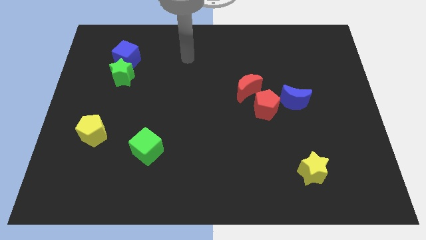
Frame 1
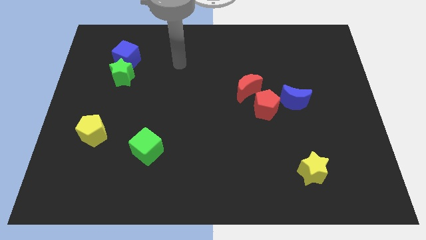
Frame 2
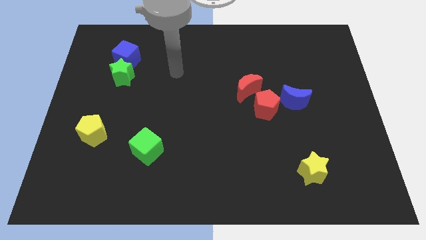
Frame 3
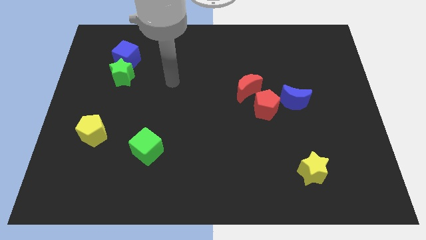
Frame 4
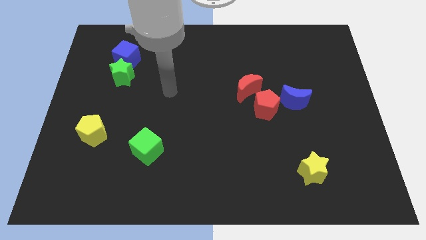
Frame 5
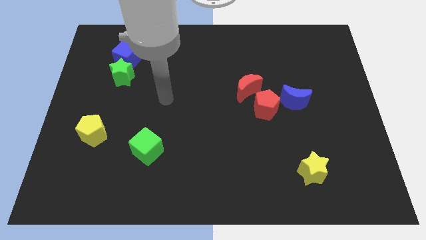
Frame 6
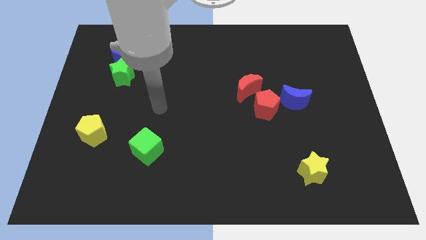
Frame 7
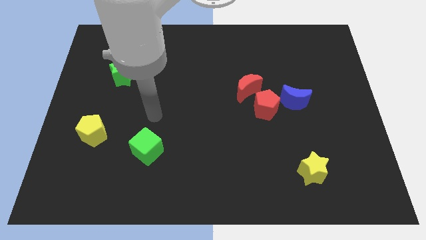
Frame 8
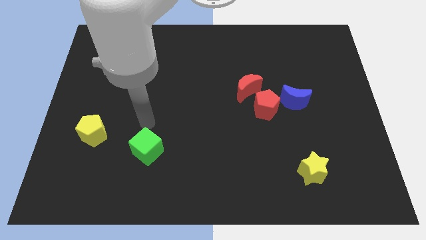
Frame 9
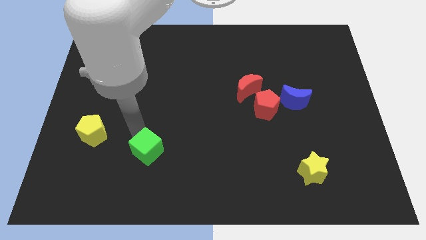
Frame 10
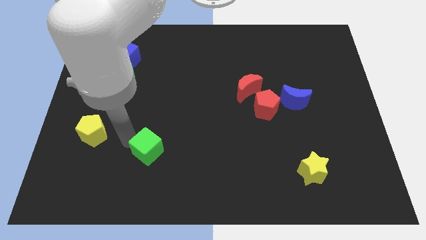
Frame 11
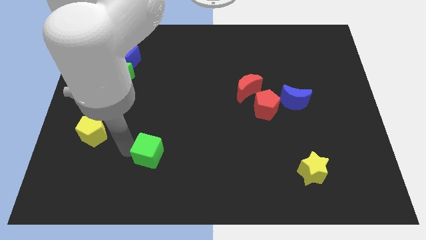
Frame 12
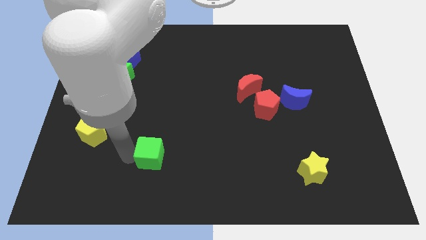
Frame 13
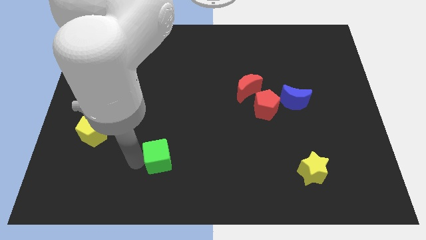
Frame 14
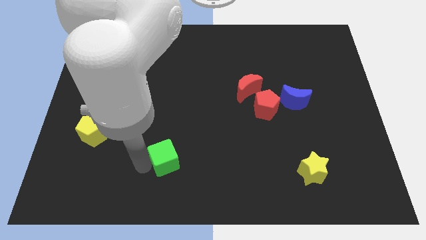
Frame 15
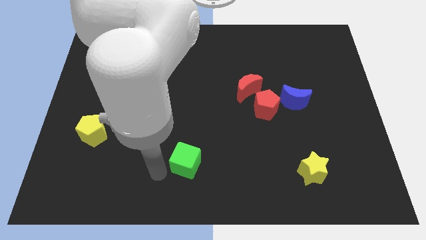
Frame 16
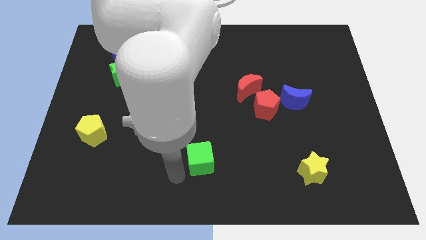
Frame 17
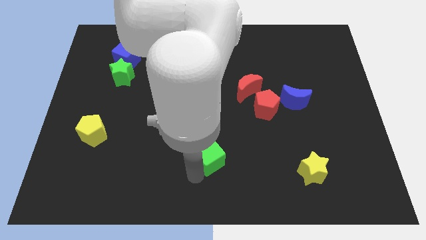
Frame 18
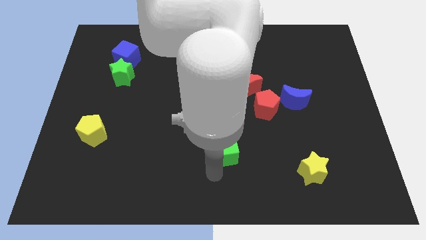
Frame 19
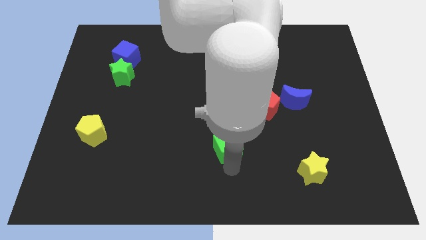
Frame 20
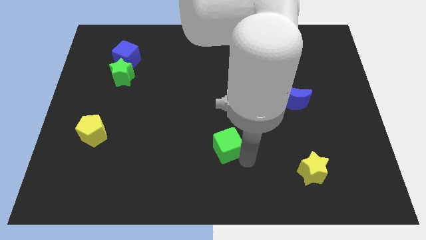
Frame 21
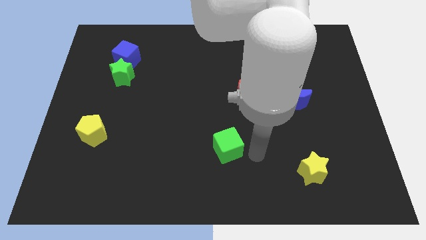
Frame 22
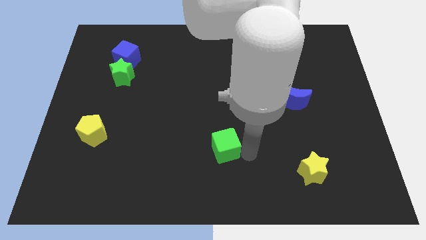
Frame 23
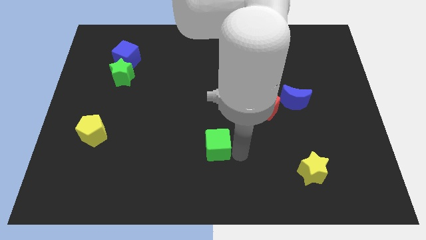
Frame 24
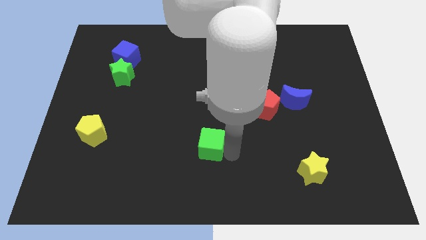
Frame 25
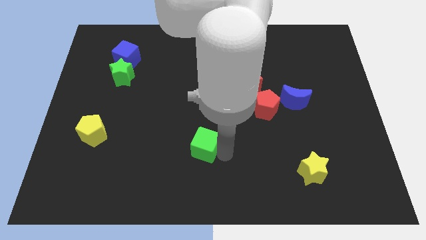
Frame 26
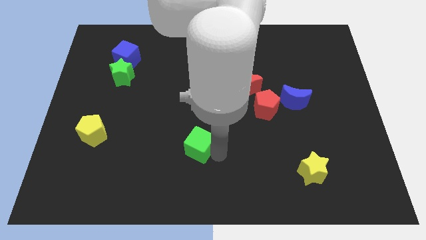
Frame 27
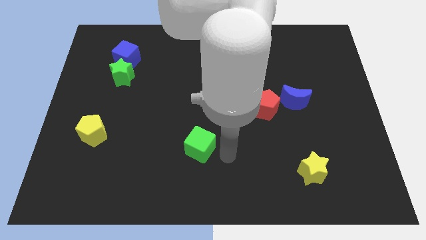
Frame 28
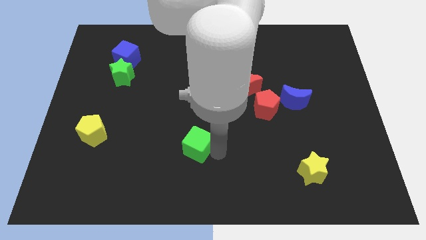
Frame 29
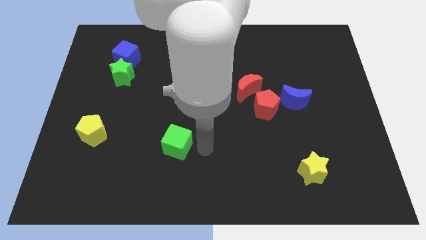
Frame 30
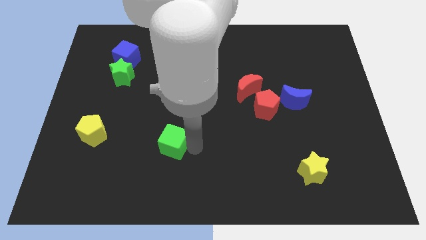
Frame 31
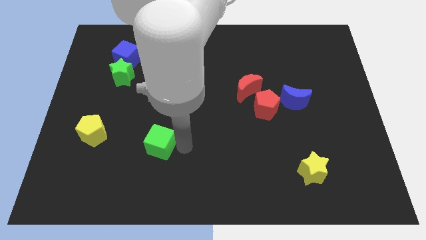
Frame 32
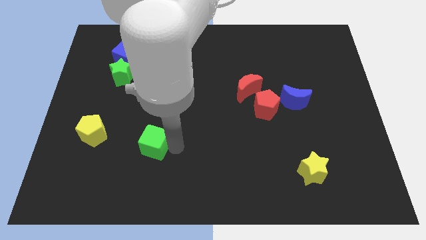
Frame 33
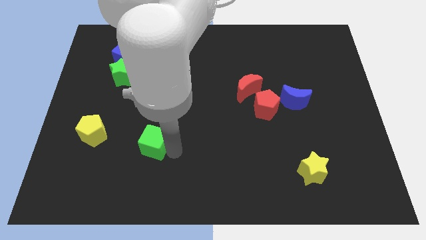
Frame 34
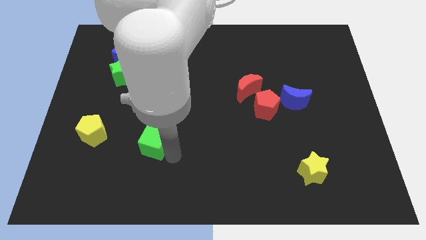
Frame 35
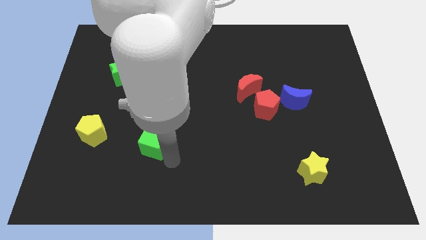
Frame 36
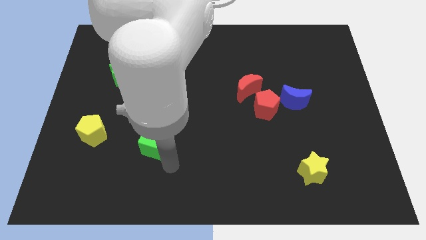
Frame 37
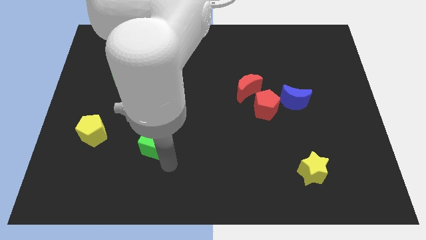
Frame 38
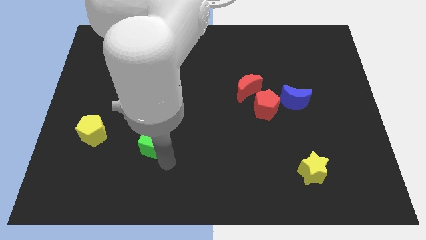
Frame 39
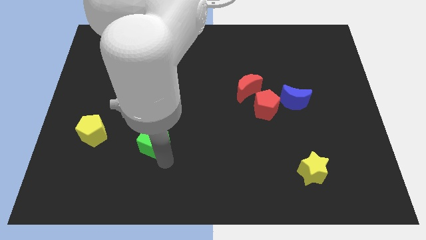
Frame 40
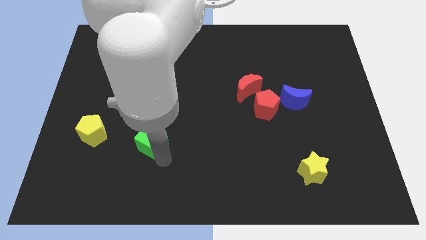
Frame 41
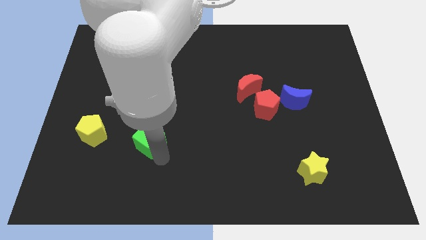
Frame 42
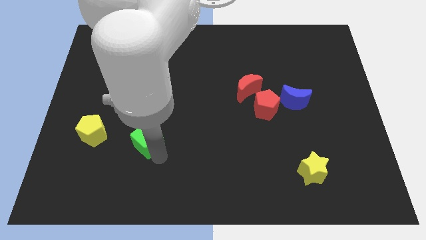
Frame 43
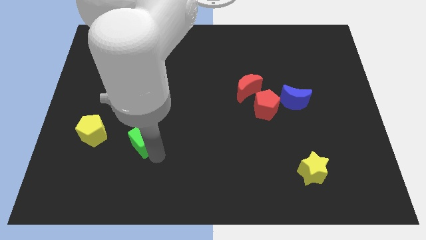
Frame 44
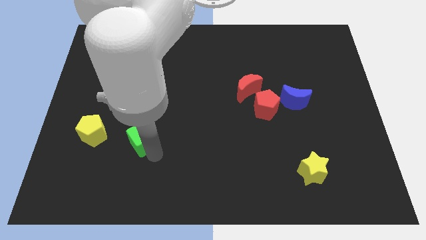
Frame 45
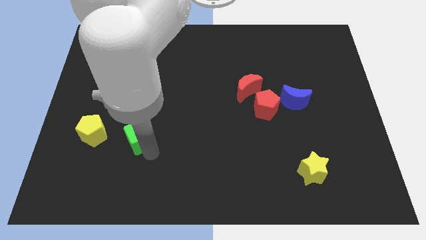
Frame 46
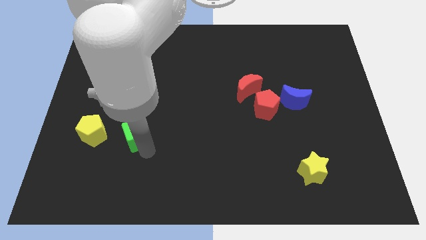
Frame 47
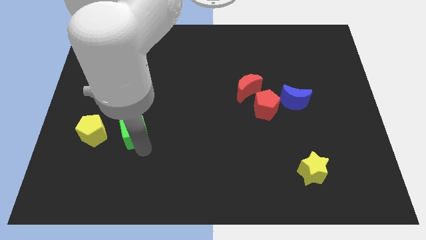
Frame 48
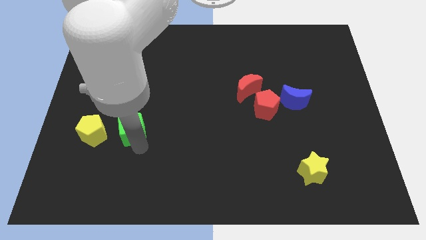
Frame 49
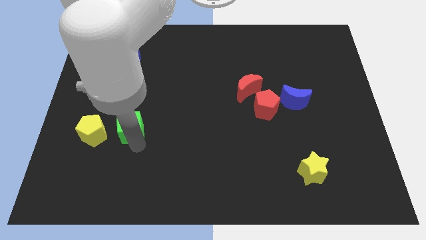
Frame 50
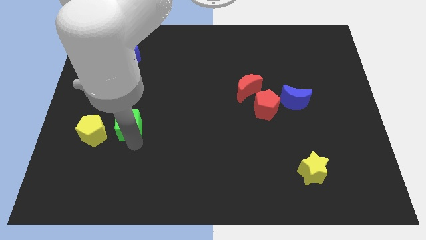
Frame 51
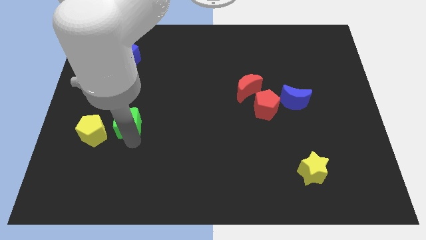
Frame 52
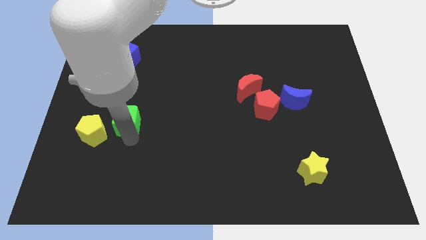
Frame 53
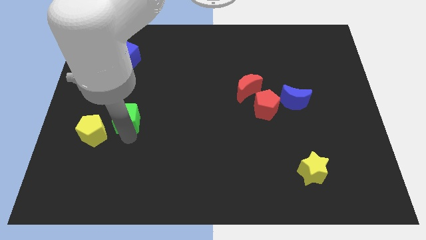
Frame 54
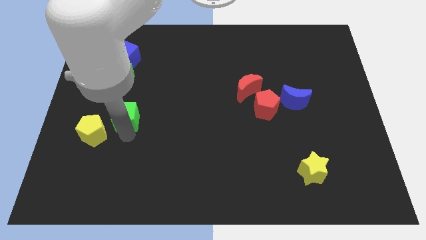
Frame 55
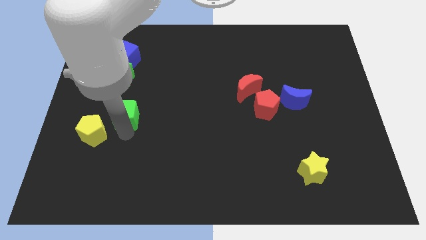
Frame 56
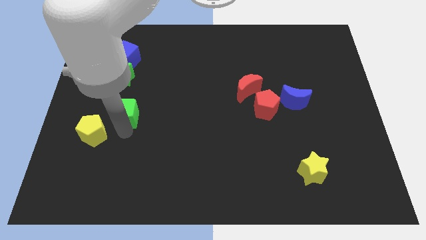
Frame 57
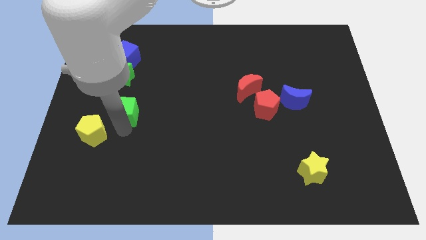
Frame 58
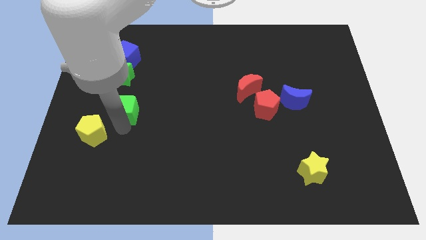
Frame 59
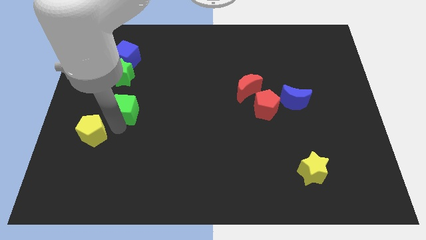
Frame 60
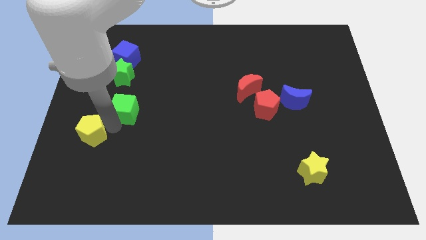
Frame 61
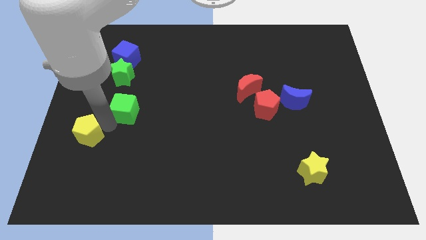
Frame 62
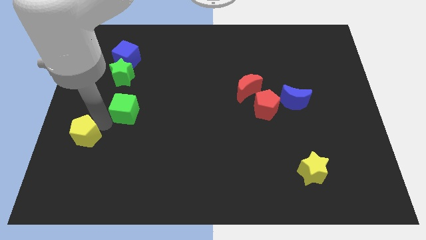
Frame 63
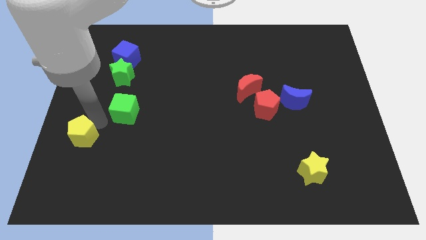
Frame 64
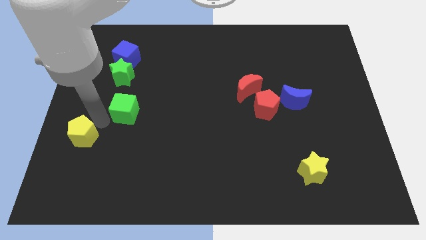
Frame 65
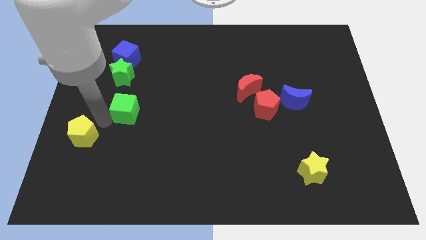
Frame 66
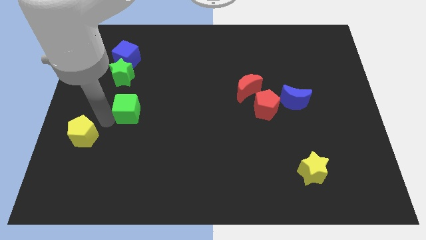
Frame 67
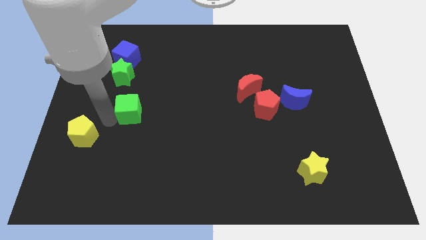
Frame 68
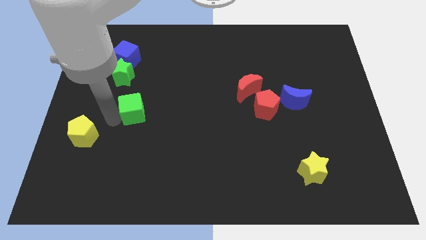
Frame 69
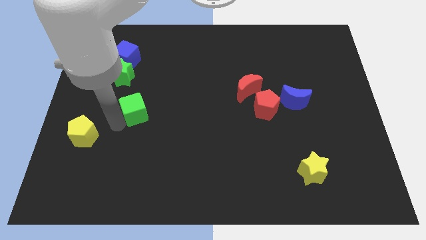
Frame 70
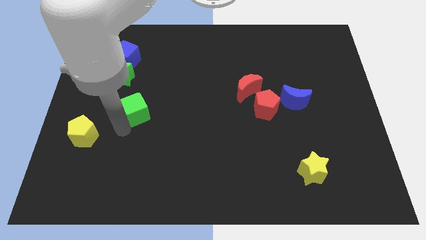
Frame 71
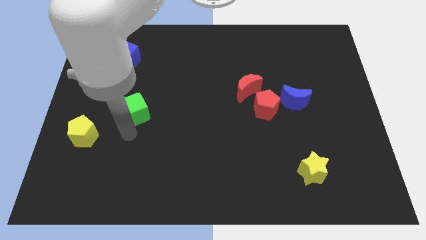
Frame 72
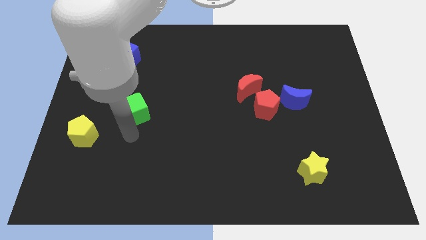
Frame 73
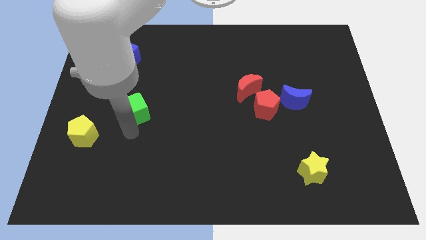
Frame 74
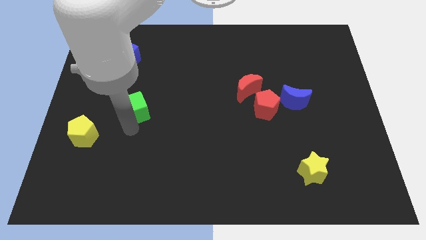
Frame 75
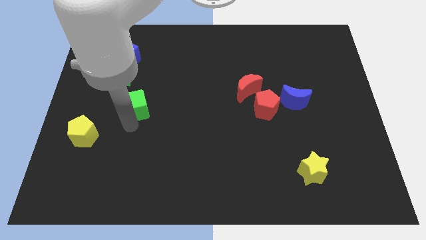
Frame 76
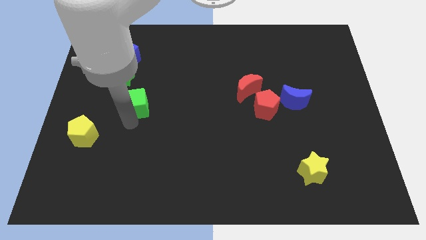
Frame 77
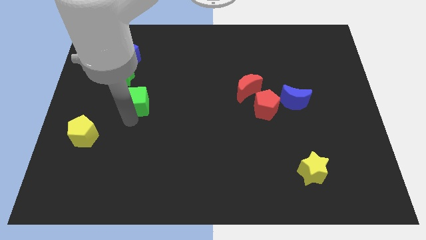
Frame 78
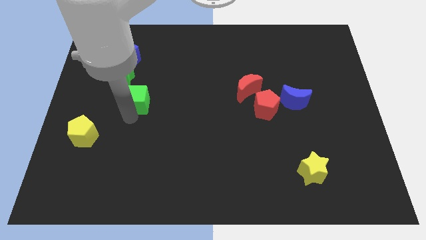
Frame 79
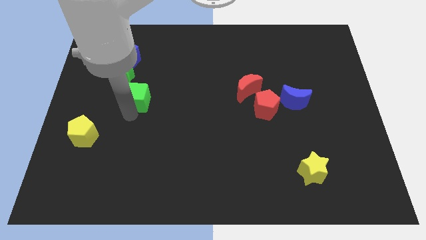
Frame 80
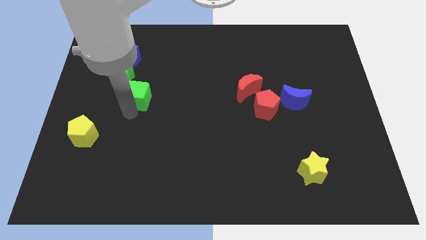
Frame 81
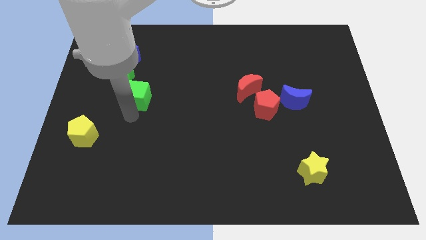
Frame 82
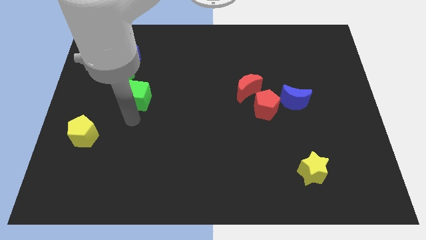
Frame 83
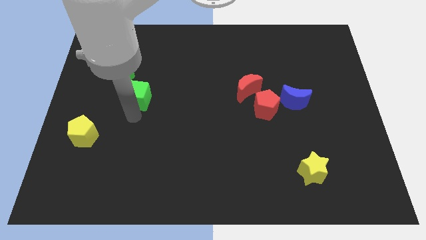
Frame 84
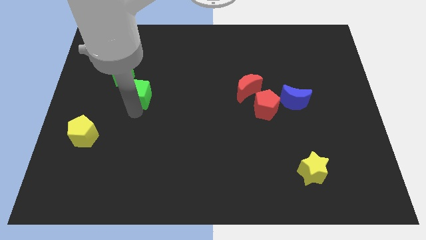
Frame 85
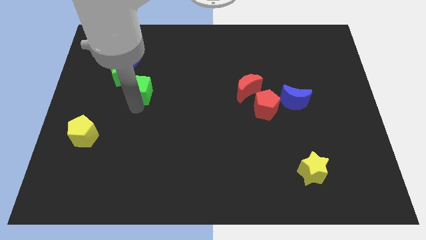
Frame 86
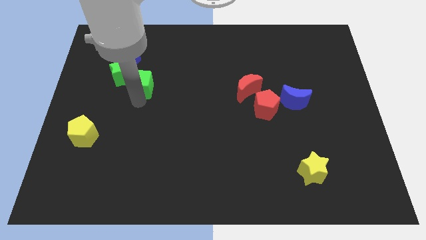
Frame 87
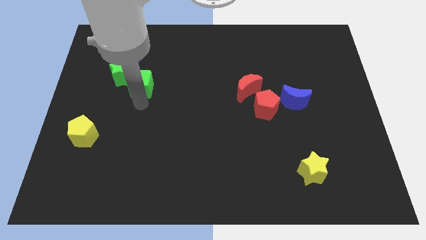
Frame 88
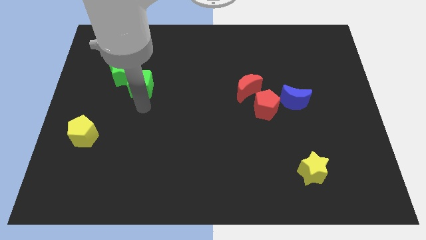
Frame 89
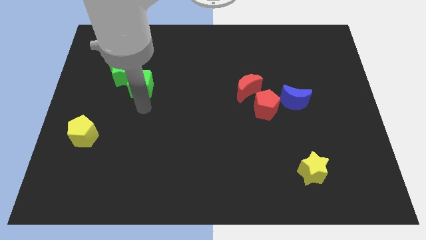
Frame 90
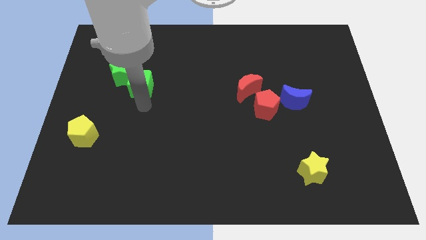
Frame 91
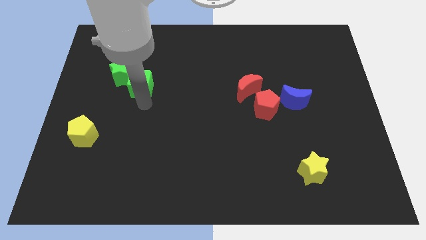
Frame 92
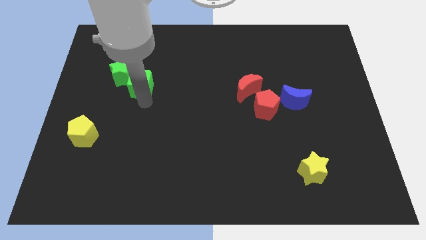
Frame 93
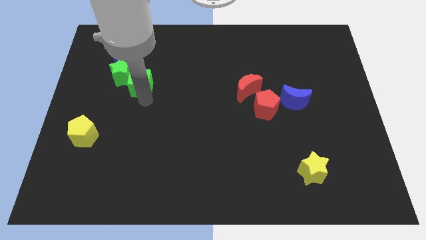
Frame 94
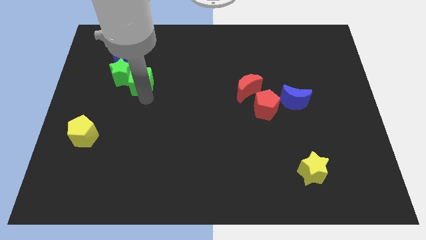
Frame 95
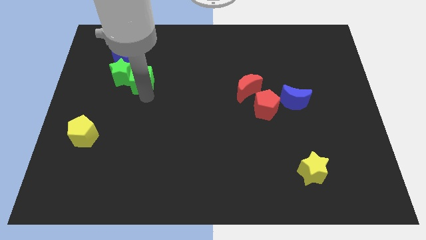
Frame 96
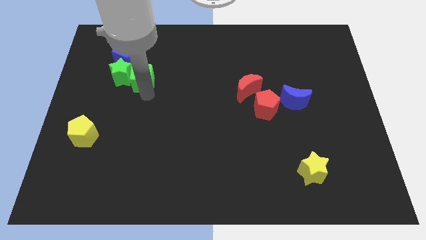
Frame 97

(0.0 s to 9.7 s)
put the green cube diagonally up and to the right of the green star
